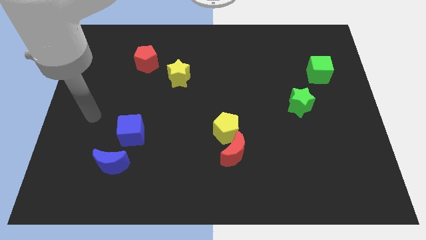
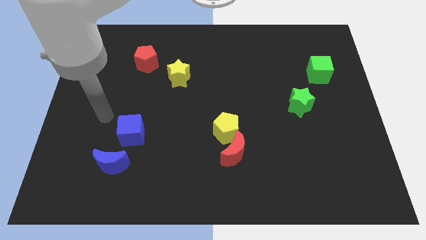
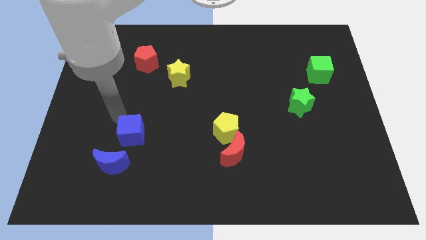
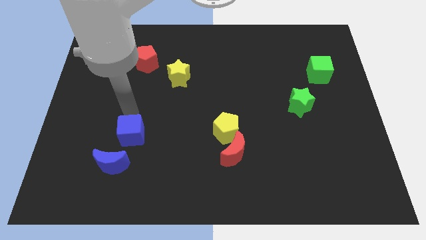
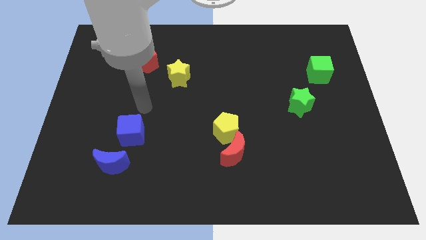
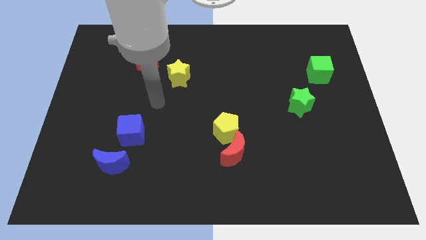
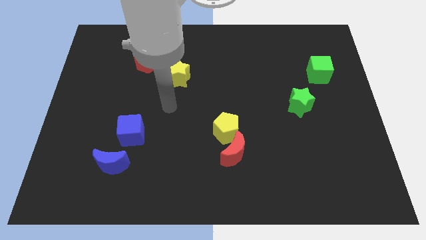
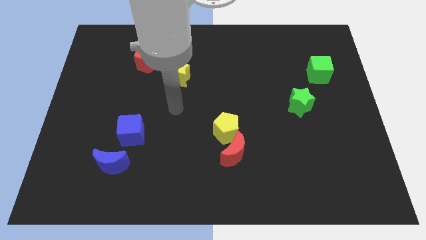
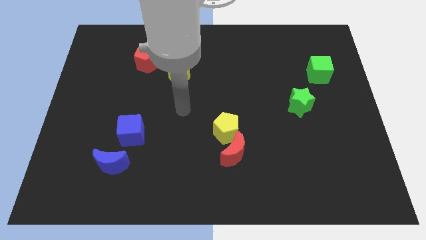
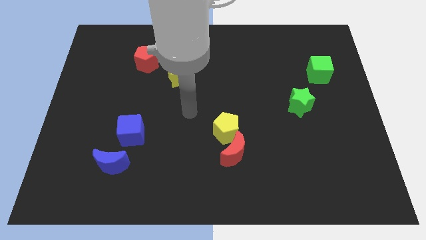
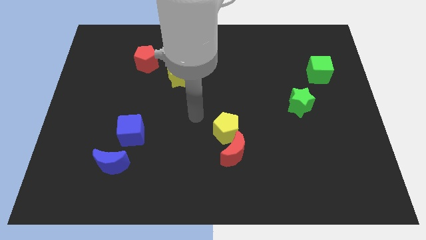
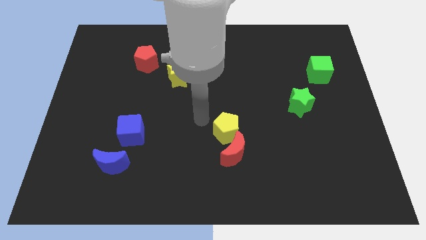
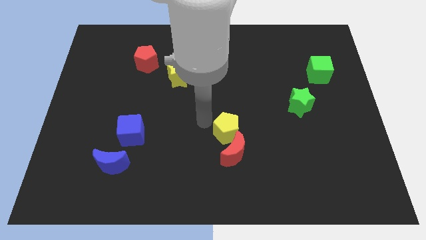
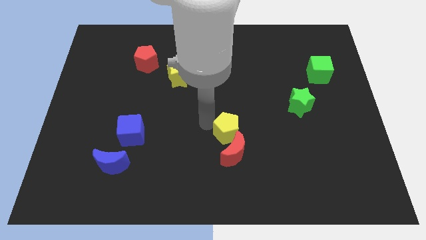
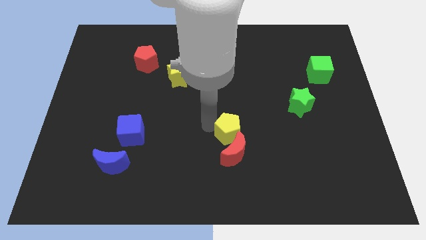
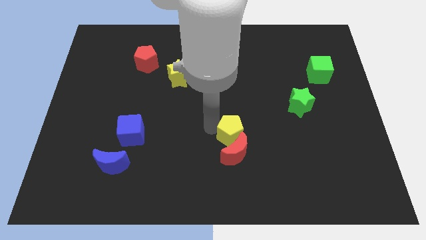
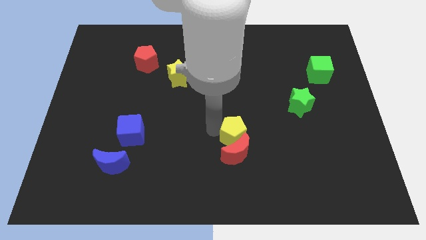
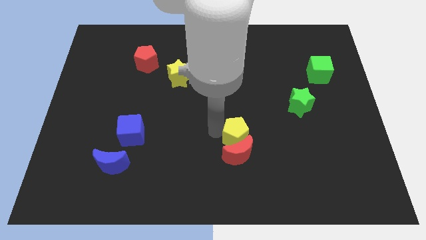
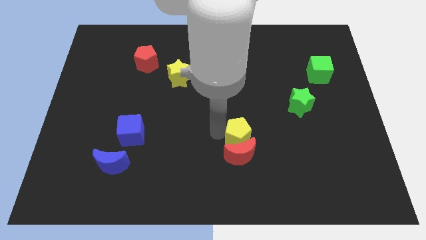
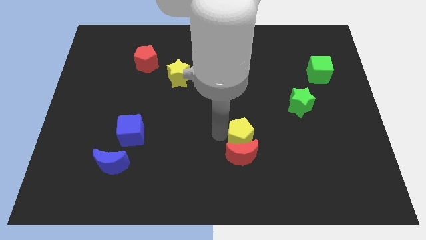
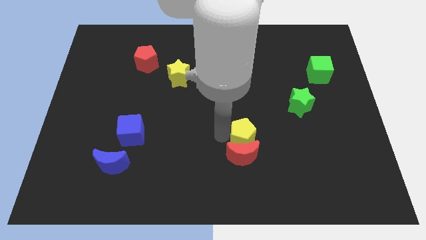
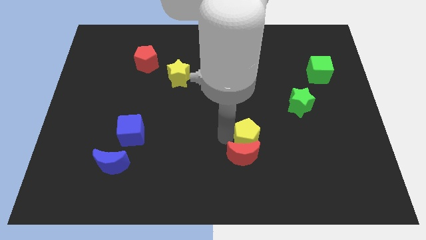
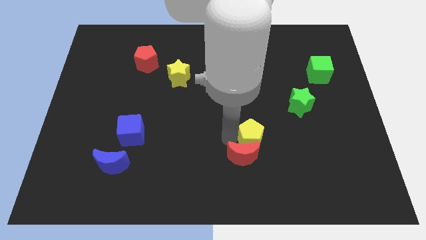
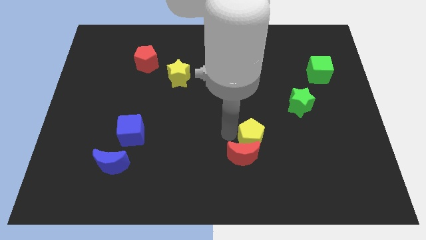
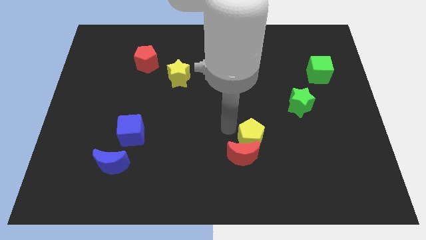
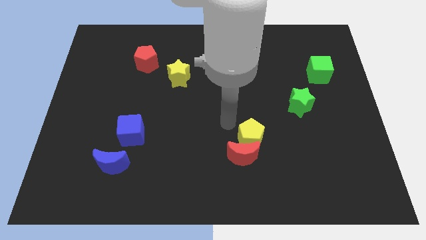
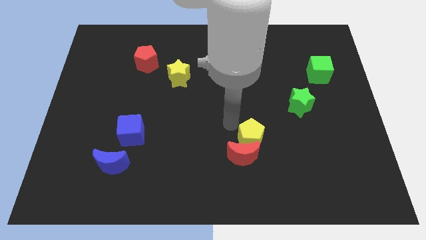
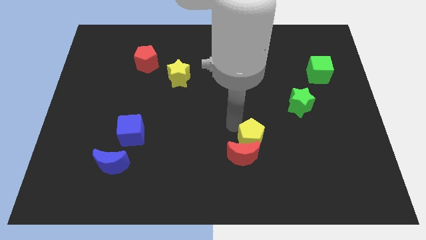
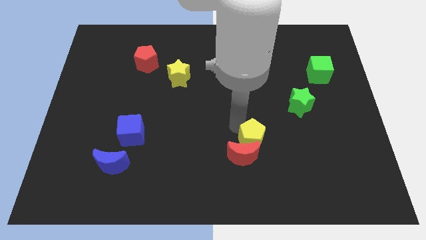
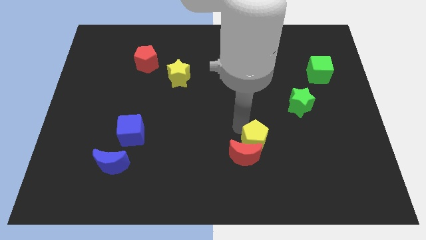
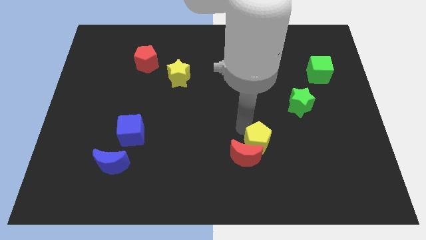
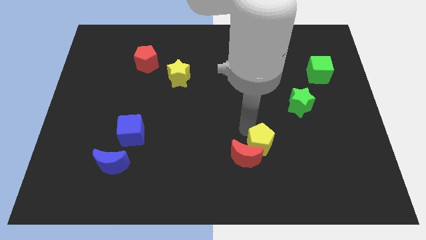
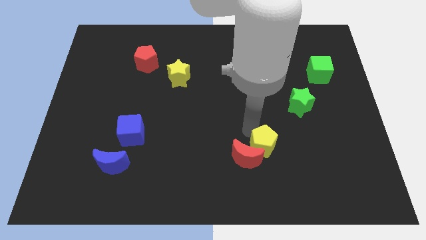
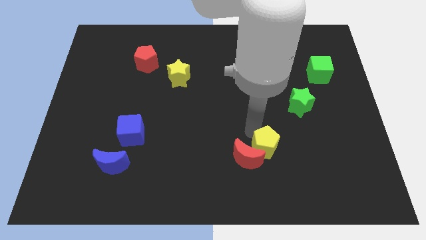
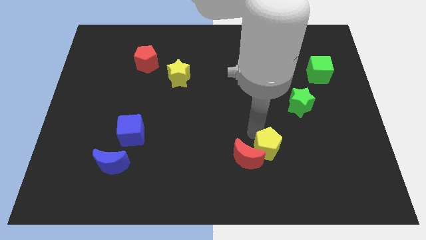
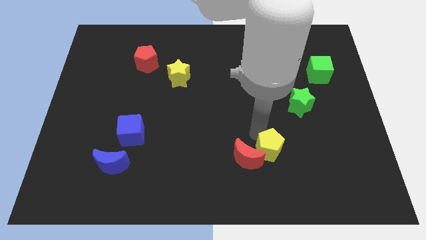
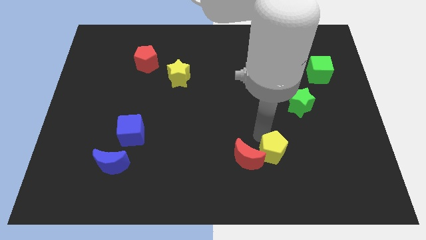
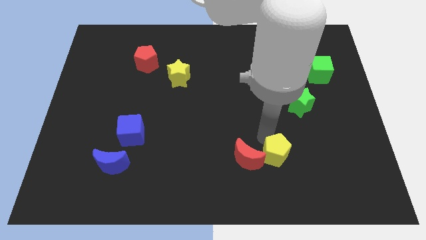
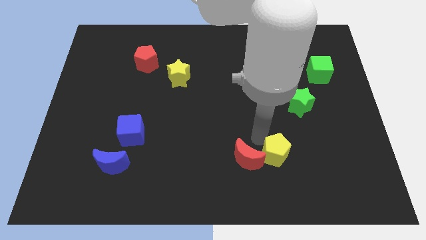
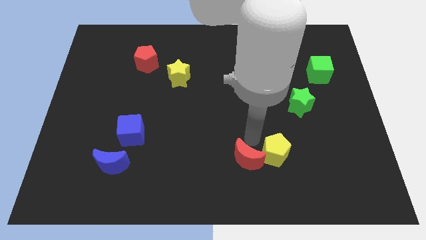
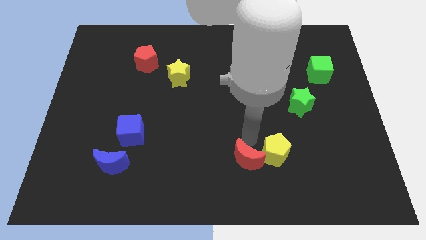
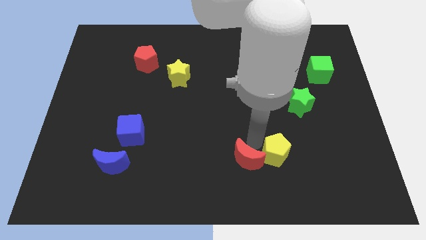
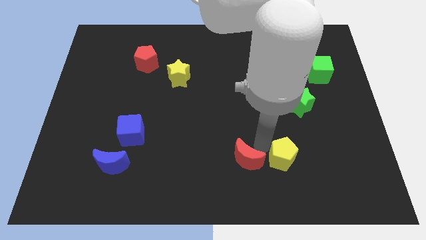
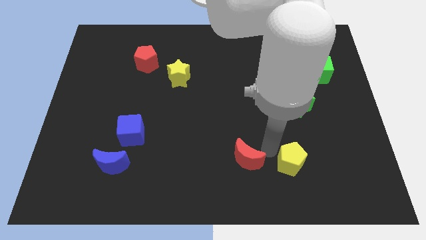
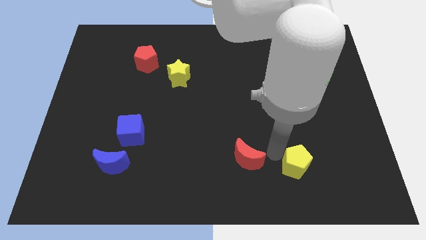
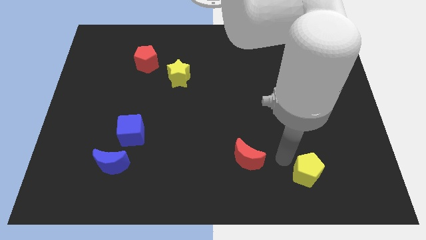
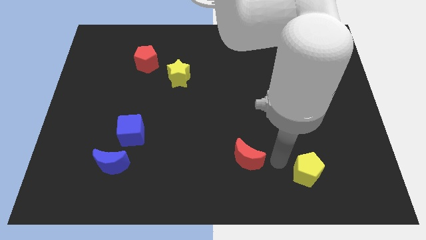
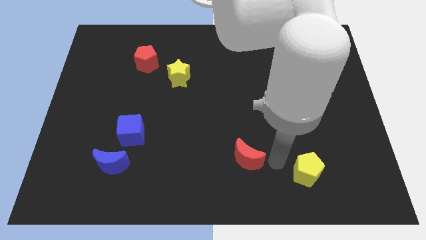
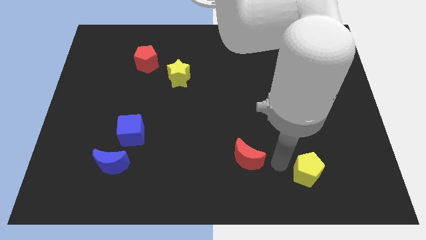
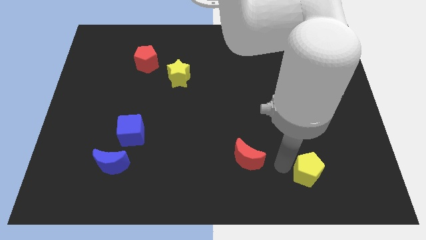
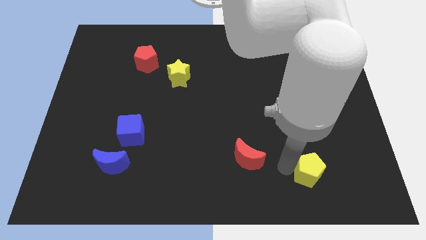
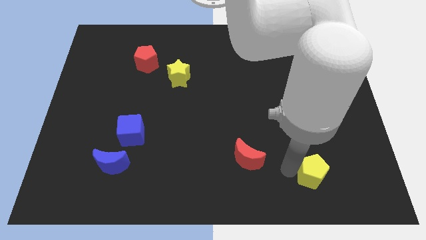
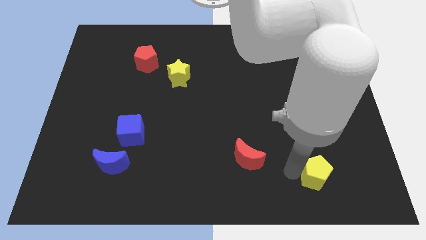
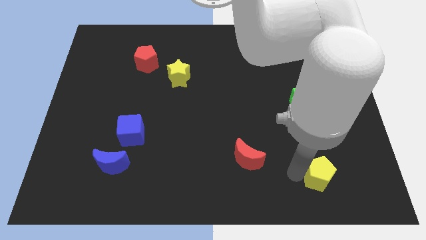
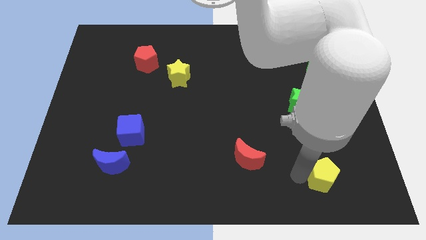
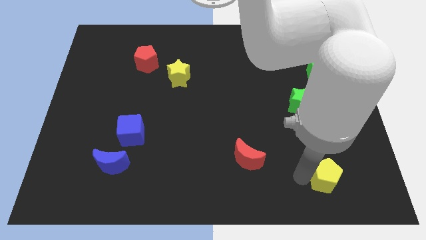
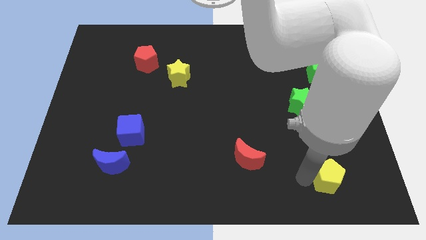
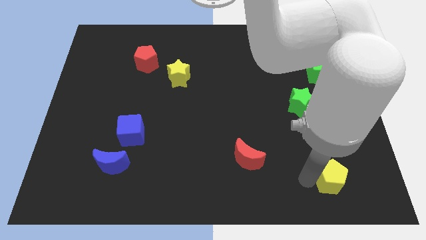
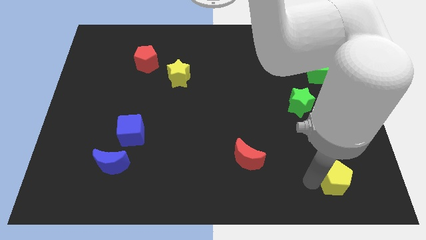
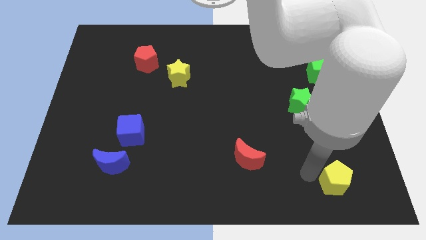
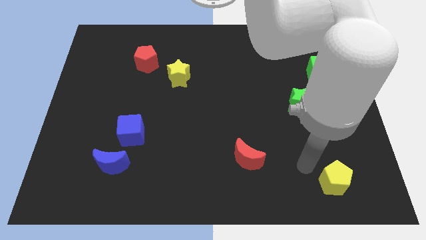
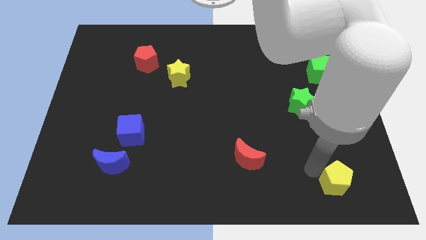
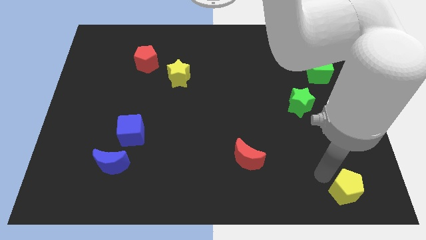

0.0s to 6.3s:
slide the yellow pentagon to the bottom right corner
